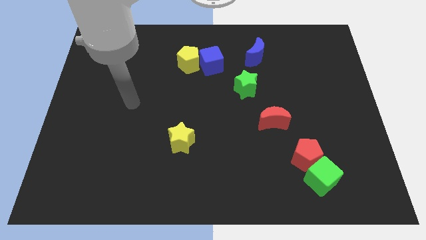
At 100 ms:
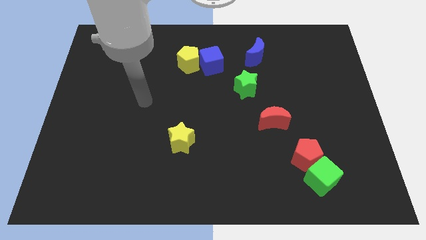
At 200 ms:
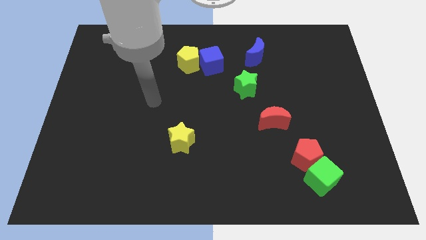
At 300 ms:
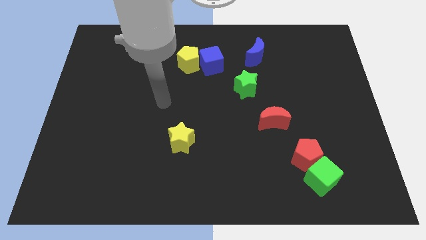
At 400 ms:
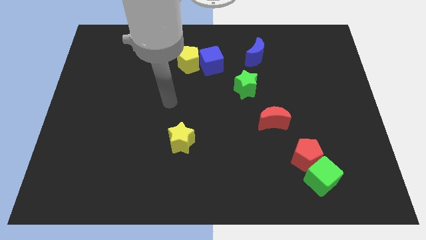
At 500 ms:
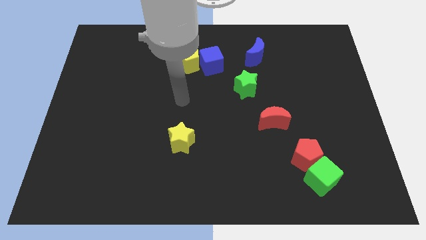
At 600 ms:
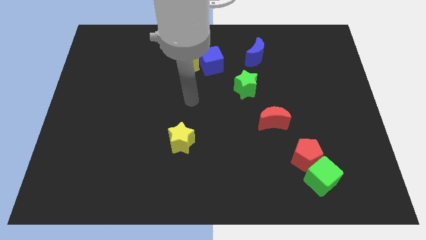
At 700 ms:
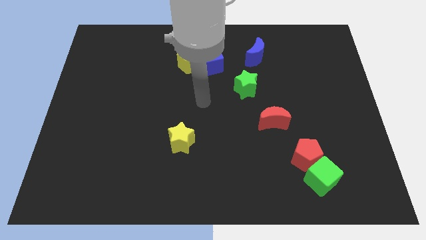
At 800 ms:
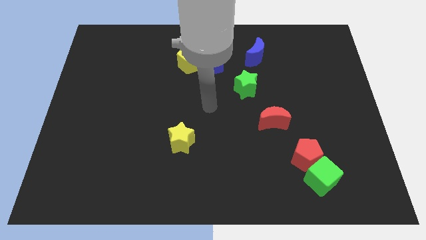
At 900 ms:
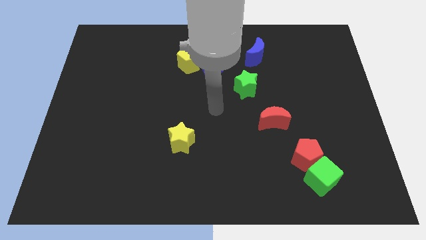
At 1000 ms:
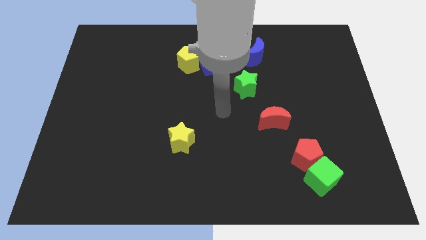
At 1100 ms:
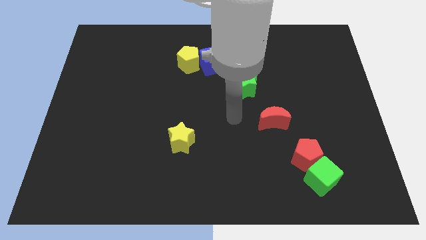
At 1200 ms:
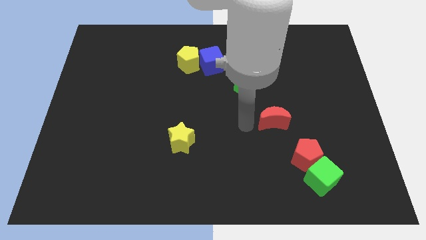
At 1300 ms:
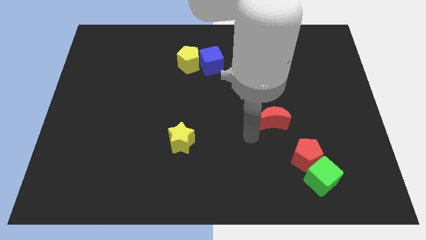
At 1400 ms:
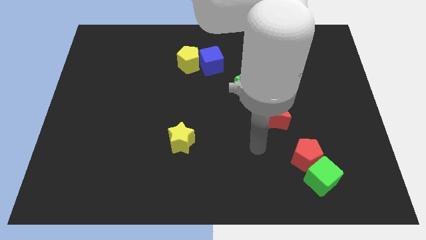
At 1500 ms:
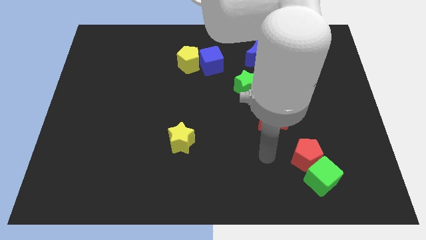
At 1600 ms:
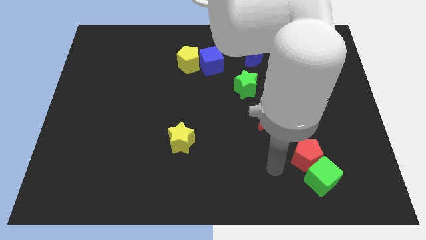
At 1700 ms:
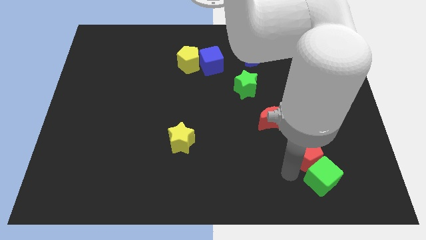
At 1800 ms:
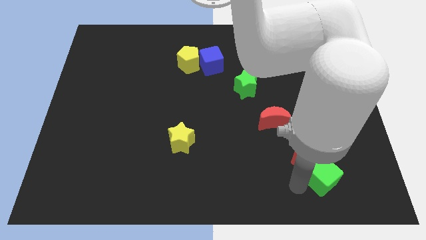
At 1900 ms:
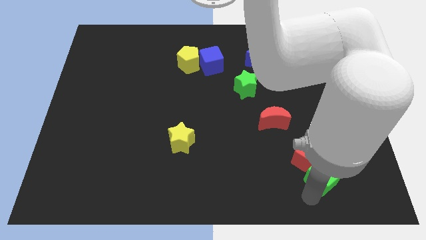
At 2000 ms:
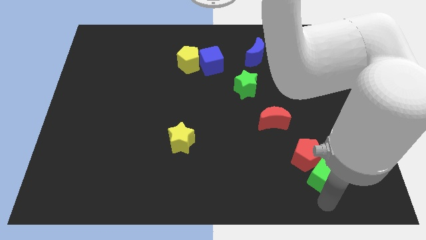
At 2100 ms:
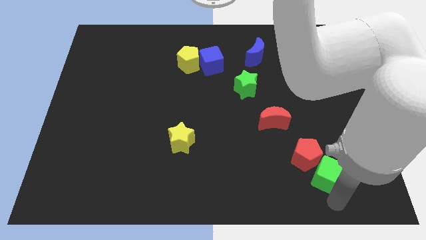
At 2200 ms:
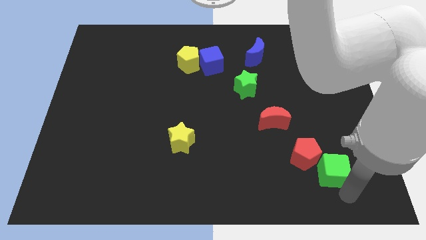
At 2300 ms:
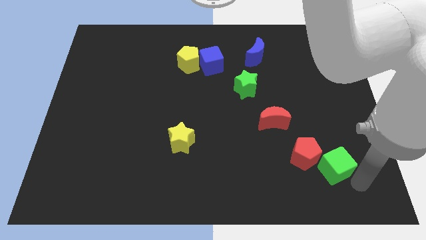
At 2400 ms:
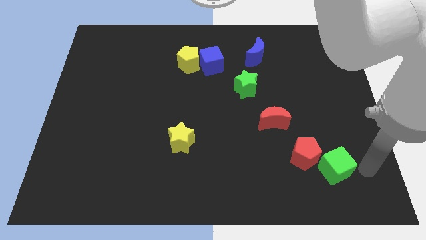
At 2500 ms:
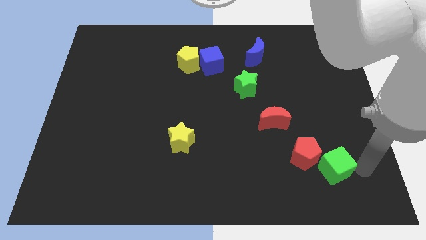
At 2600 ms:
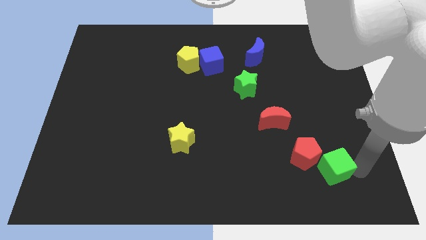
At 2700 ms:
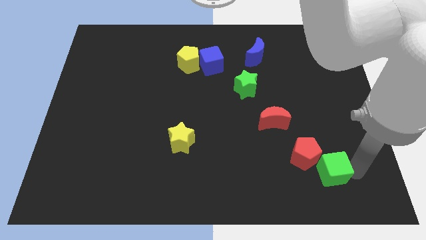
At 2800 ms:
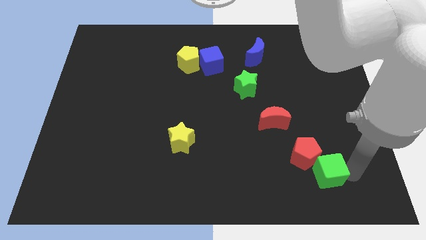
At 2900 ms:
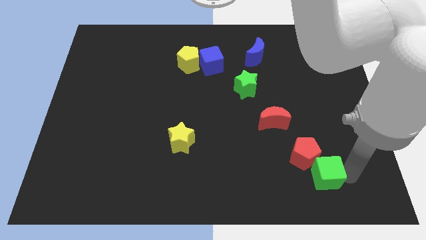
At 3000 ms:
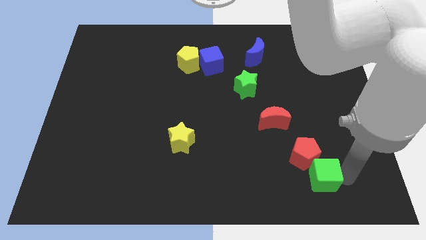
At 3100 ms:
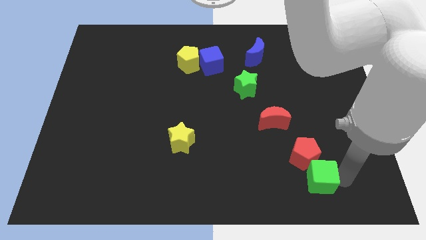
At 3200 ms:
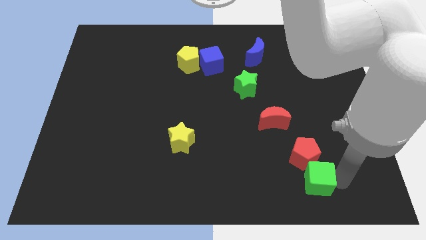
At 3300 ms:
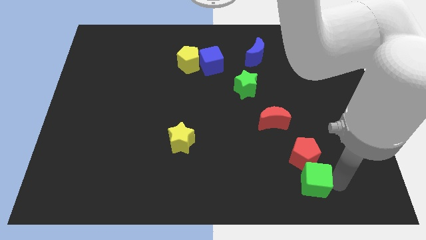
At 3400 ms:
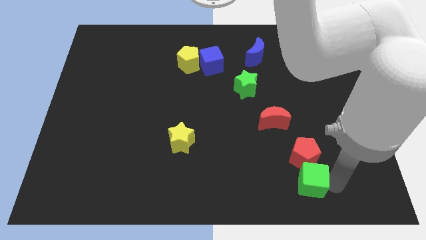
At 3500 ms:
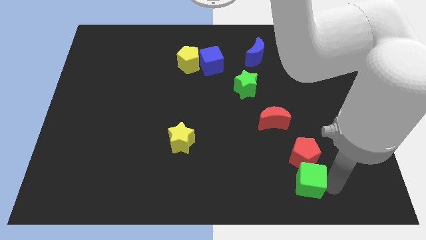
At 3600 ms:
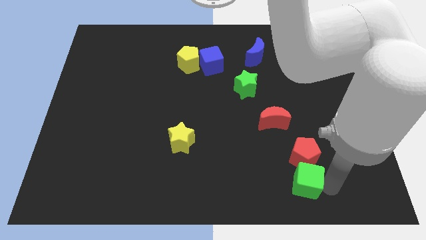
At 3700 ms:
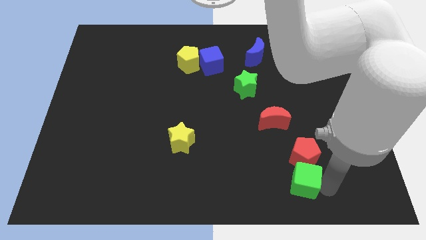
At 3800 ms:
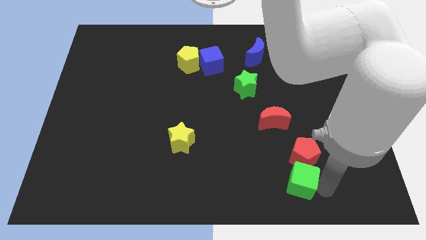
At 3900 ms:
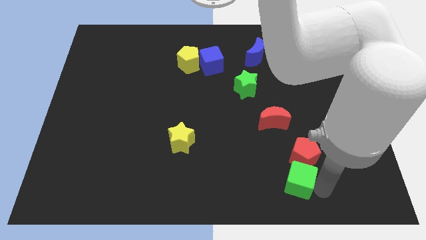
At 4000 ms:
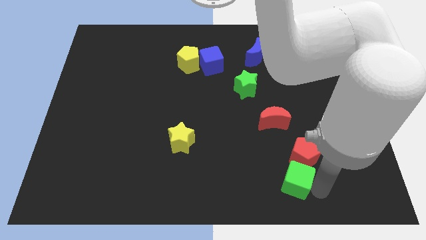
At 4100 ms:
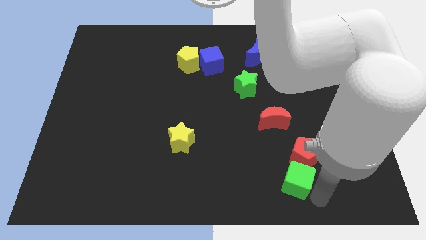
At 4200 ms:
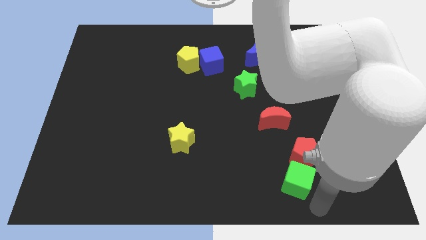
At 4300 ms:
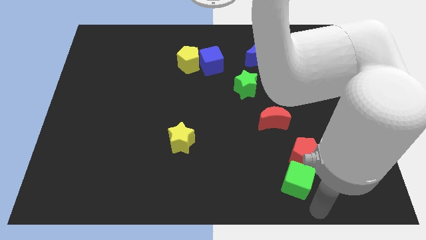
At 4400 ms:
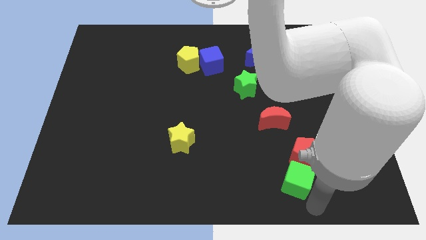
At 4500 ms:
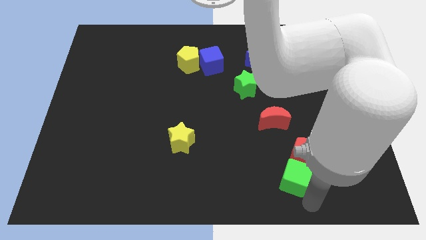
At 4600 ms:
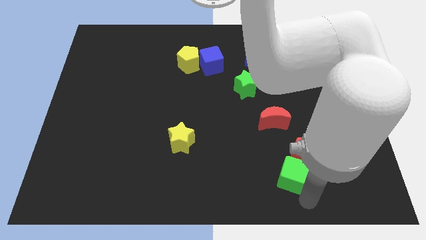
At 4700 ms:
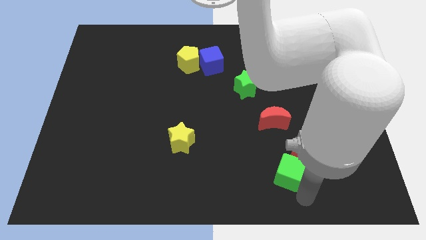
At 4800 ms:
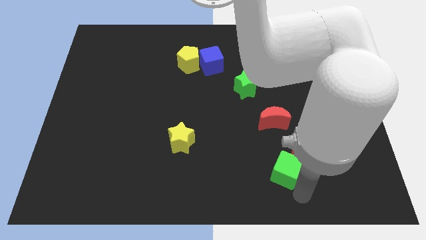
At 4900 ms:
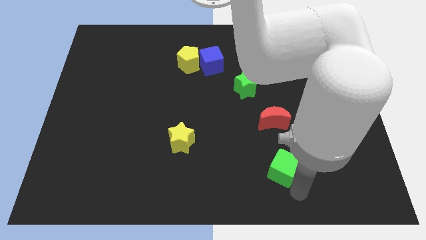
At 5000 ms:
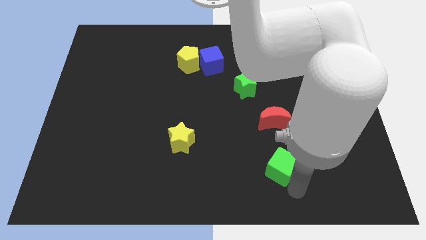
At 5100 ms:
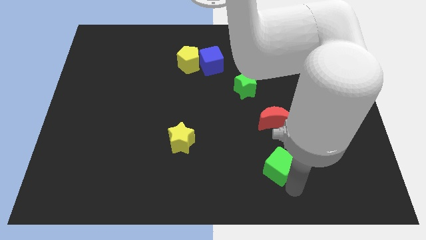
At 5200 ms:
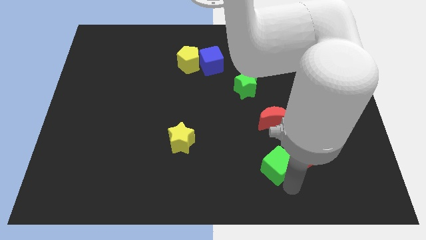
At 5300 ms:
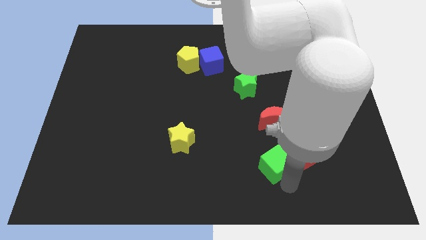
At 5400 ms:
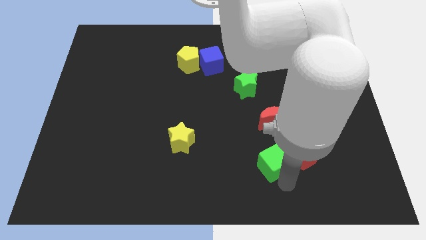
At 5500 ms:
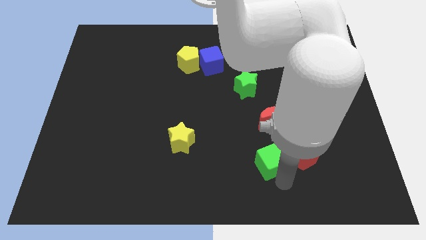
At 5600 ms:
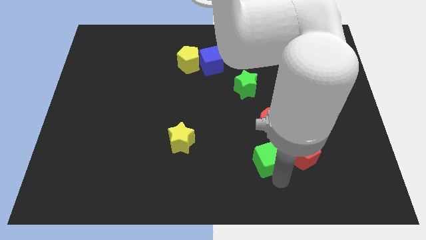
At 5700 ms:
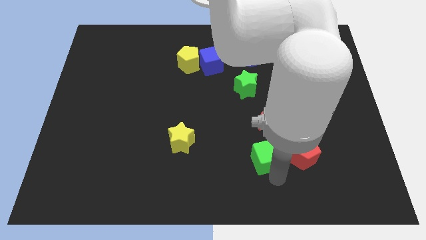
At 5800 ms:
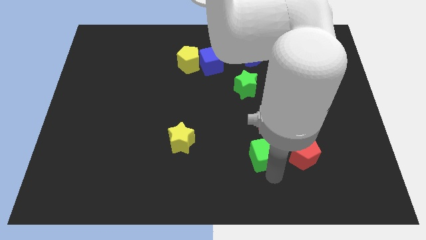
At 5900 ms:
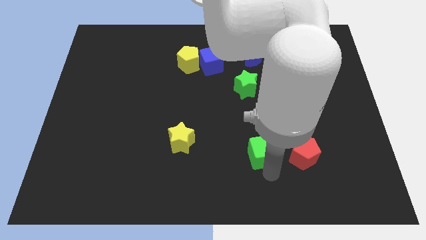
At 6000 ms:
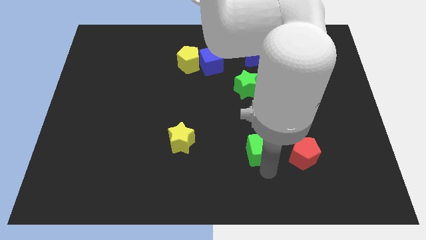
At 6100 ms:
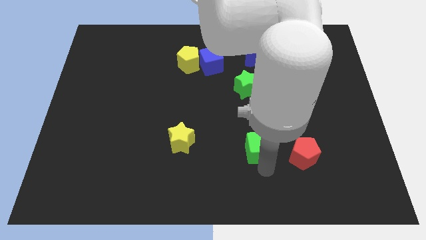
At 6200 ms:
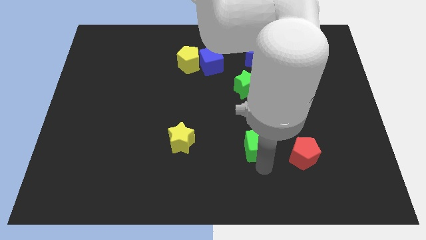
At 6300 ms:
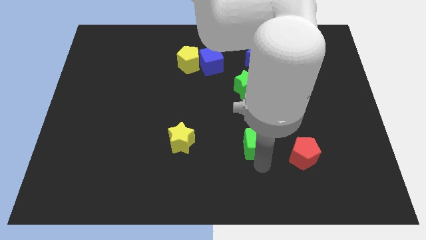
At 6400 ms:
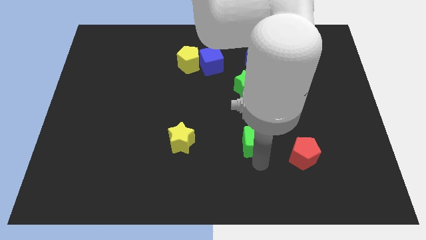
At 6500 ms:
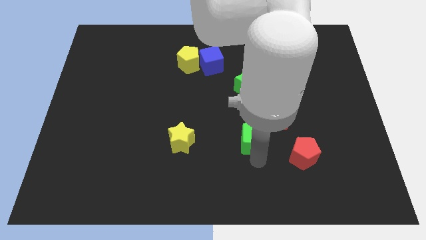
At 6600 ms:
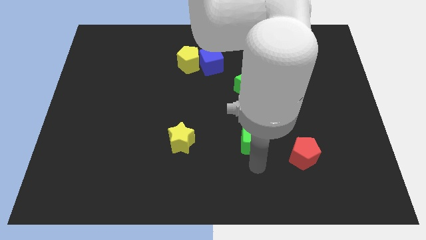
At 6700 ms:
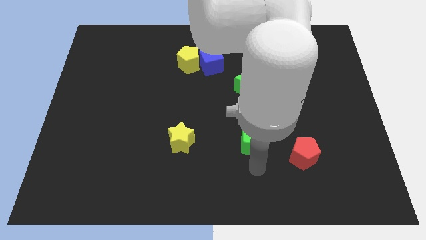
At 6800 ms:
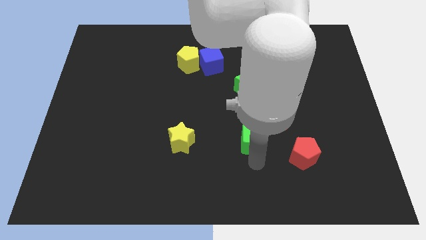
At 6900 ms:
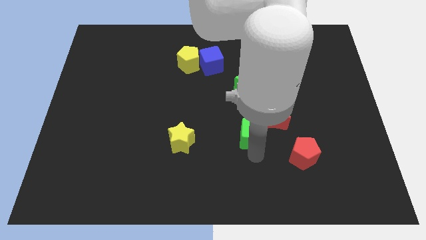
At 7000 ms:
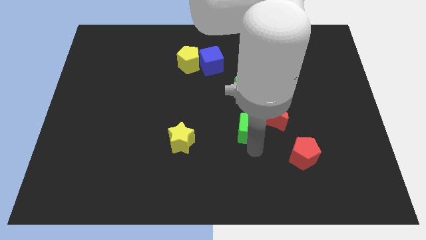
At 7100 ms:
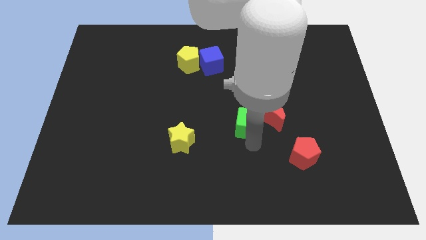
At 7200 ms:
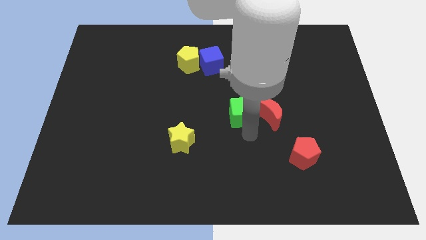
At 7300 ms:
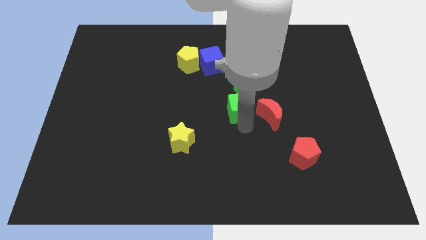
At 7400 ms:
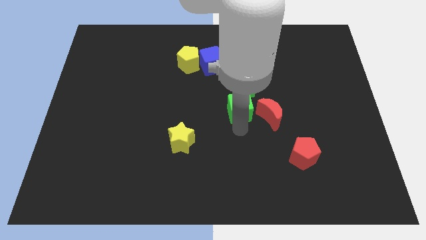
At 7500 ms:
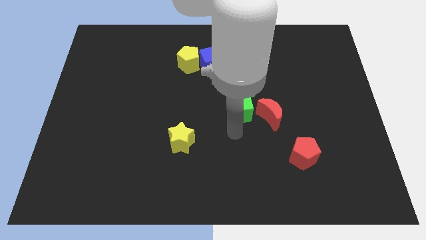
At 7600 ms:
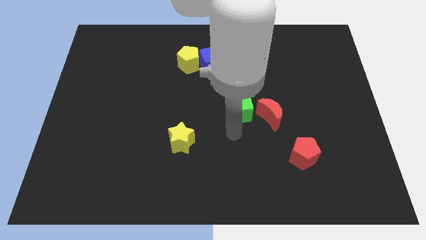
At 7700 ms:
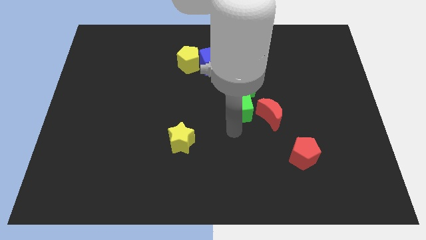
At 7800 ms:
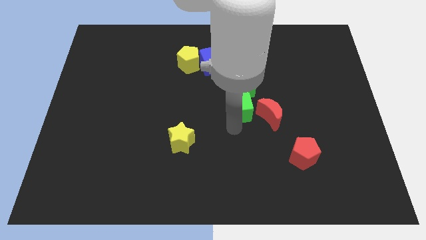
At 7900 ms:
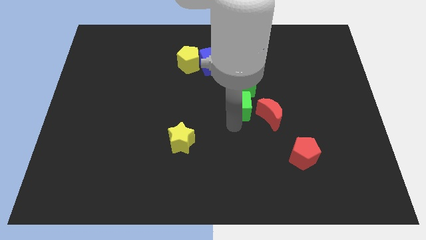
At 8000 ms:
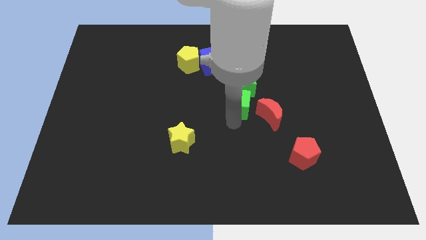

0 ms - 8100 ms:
put the green cube towards the green star
